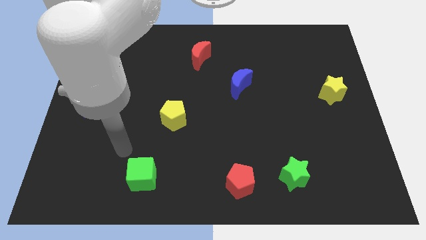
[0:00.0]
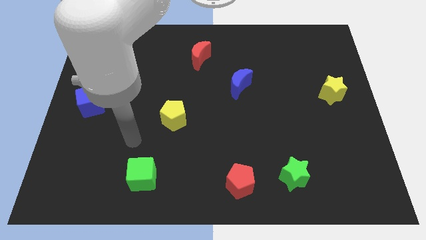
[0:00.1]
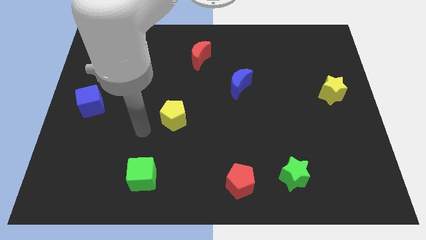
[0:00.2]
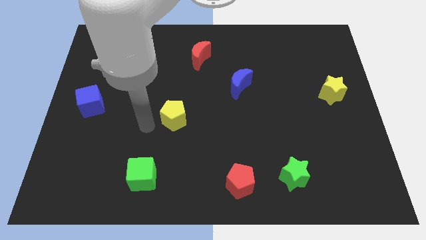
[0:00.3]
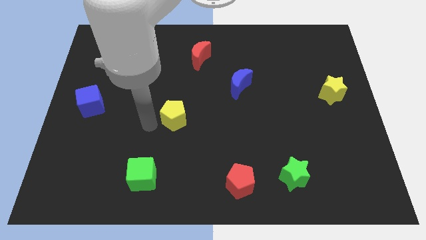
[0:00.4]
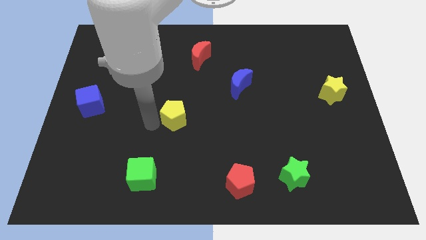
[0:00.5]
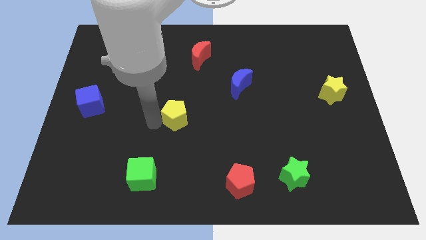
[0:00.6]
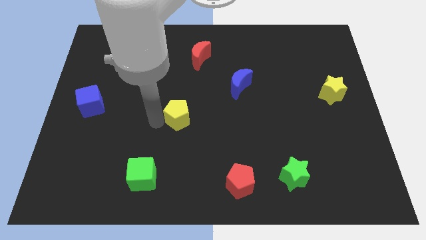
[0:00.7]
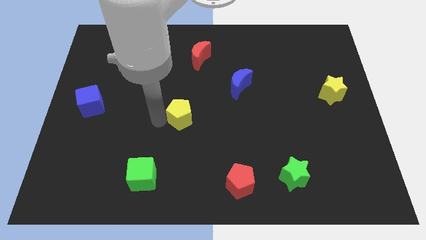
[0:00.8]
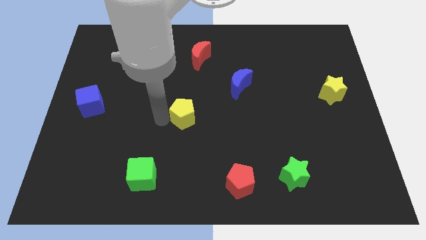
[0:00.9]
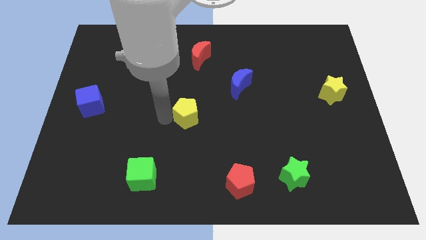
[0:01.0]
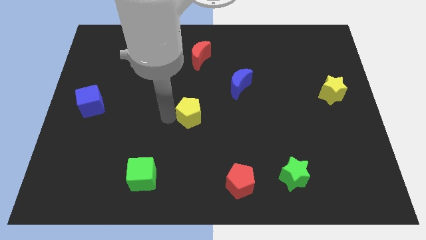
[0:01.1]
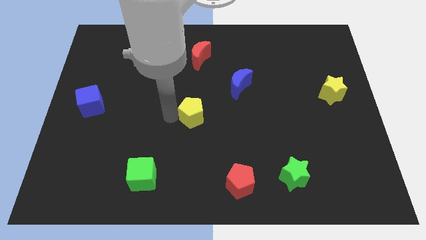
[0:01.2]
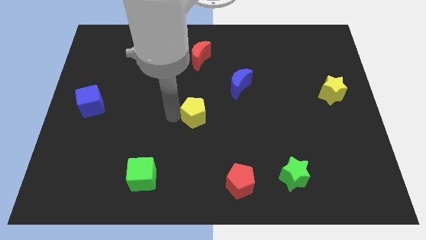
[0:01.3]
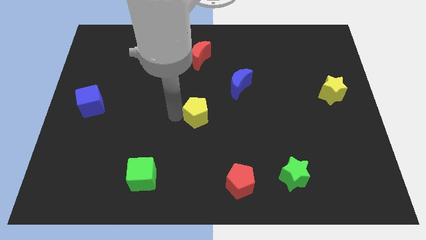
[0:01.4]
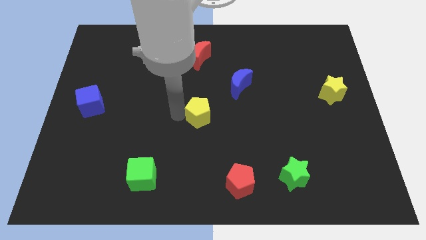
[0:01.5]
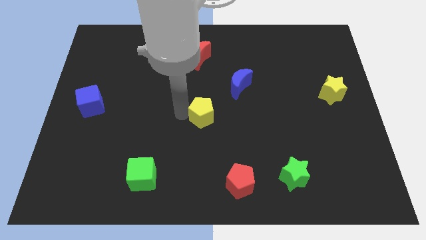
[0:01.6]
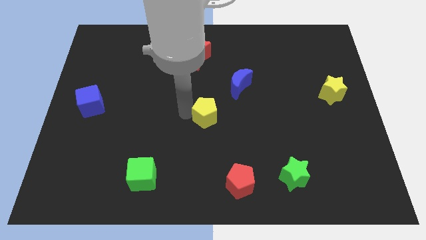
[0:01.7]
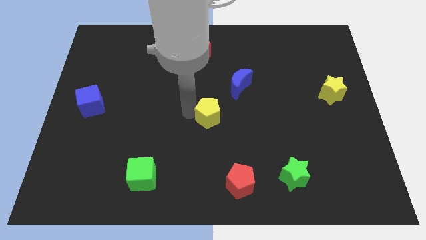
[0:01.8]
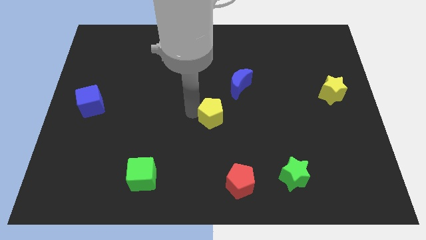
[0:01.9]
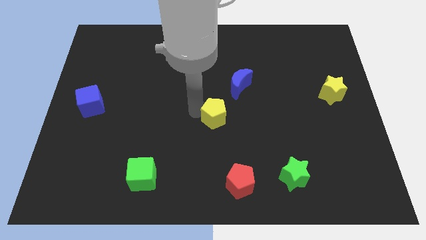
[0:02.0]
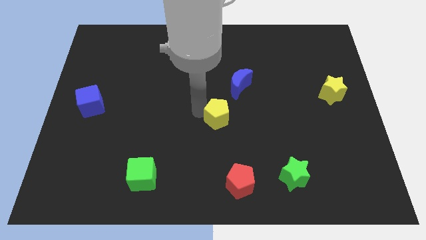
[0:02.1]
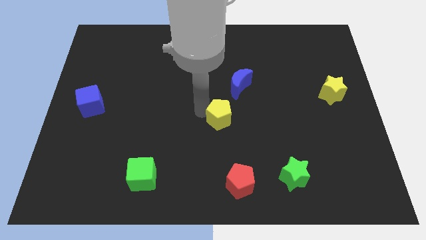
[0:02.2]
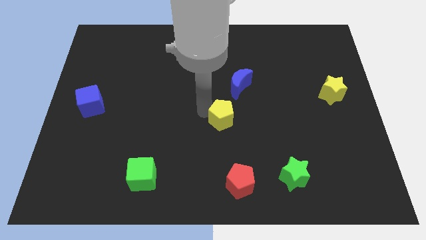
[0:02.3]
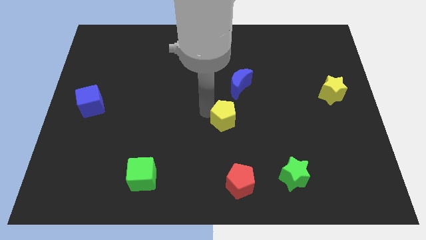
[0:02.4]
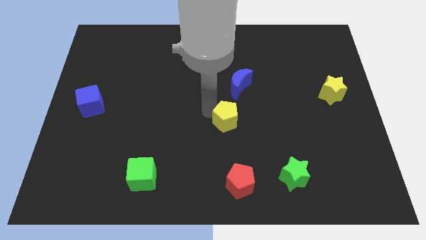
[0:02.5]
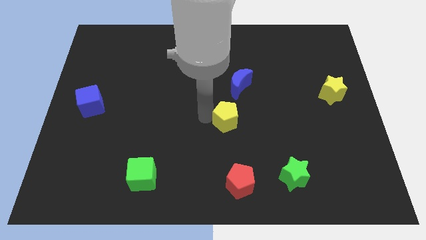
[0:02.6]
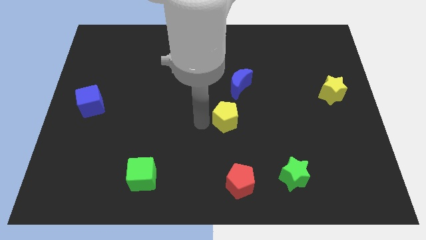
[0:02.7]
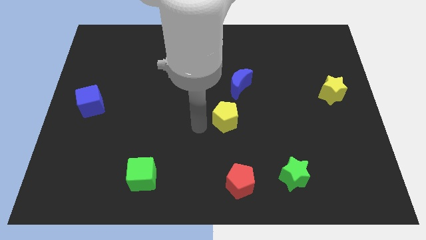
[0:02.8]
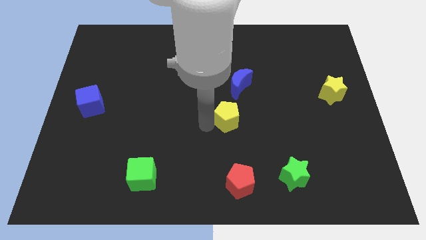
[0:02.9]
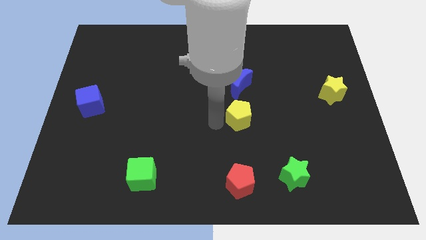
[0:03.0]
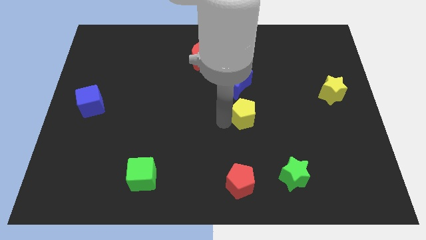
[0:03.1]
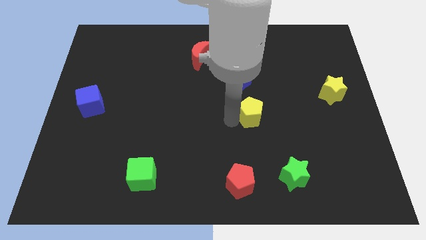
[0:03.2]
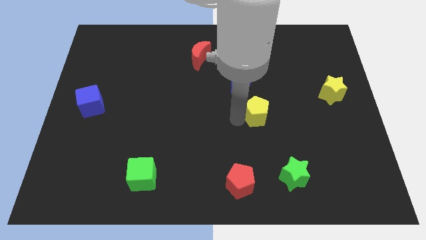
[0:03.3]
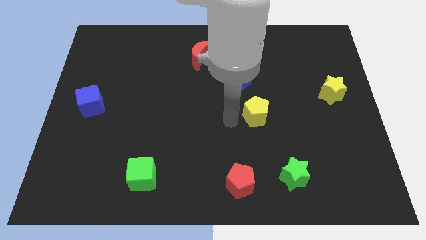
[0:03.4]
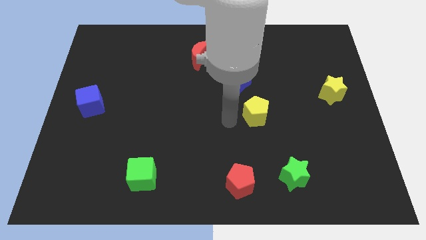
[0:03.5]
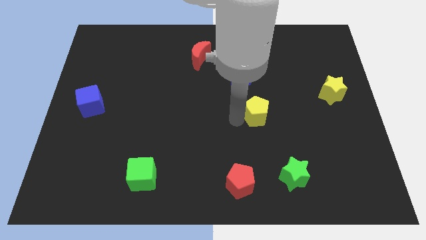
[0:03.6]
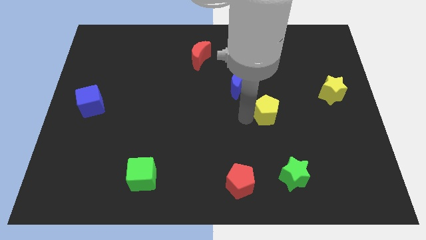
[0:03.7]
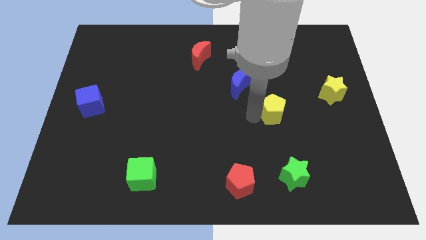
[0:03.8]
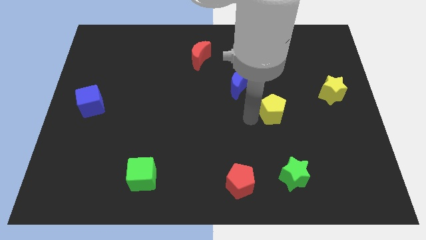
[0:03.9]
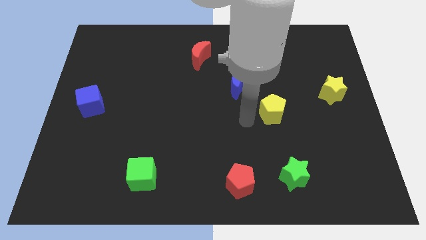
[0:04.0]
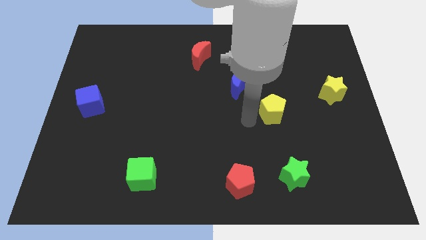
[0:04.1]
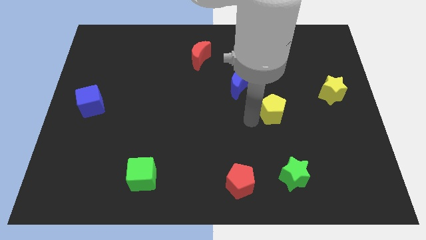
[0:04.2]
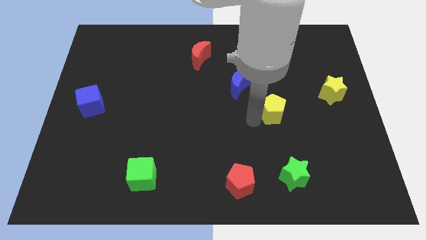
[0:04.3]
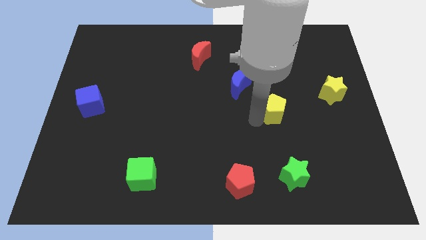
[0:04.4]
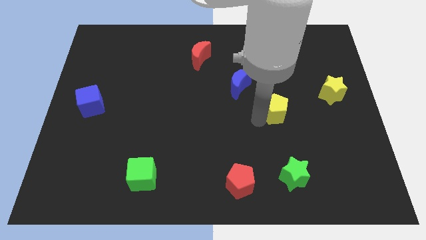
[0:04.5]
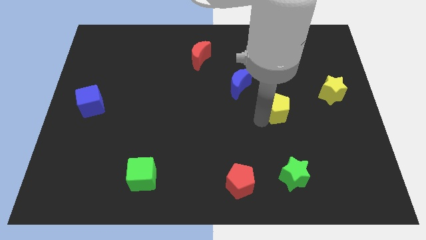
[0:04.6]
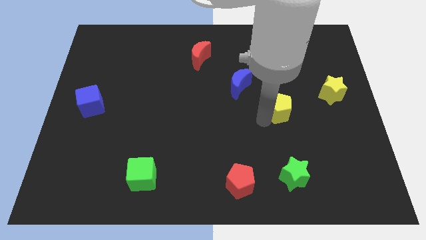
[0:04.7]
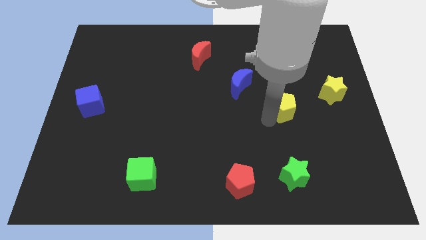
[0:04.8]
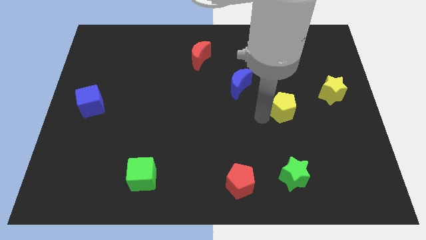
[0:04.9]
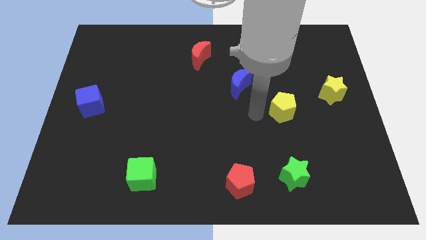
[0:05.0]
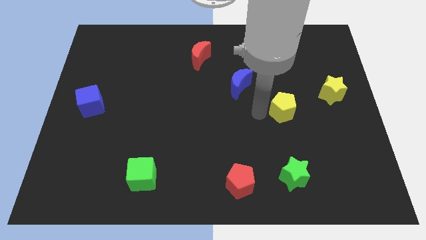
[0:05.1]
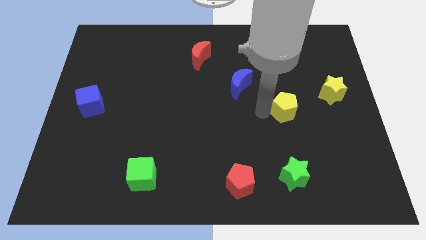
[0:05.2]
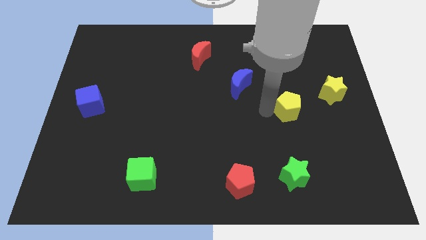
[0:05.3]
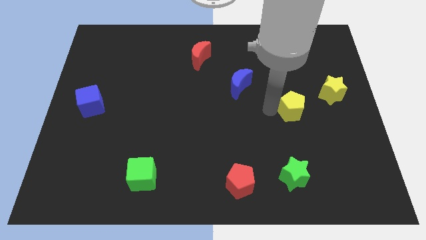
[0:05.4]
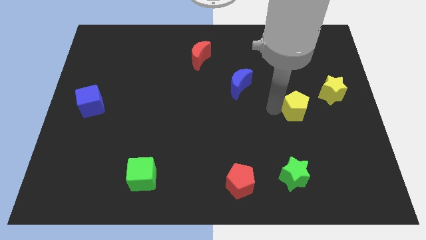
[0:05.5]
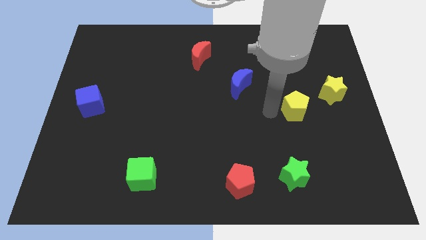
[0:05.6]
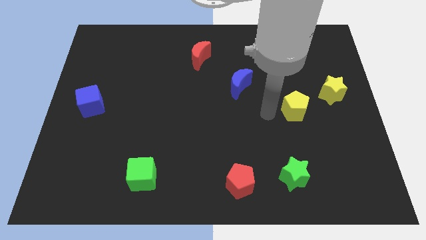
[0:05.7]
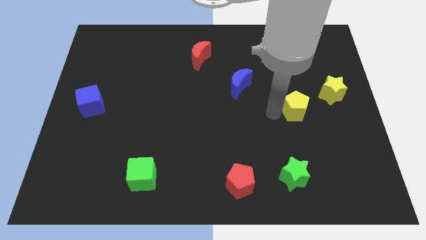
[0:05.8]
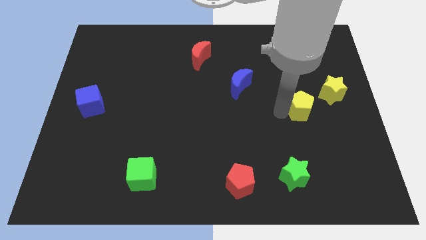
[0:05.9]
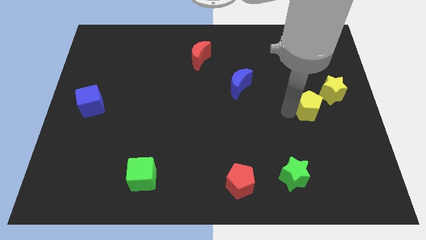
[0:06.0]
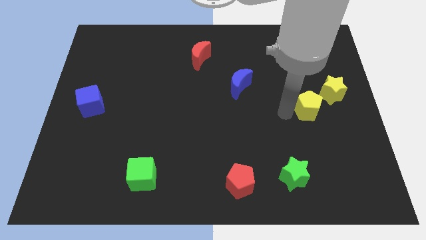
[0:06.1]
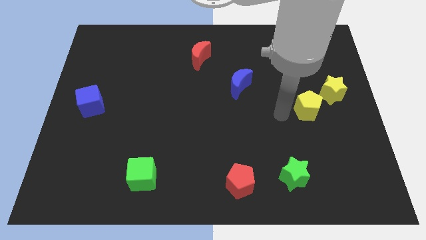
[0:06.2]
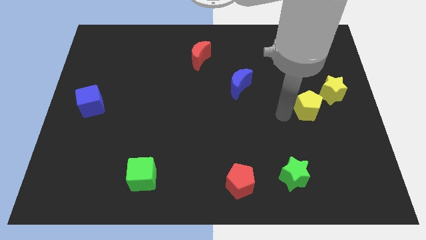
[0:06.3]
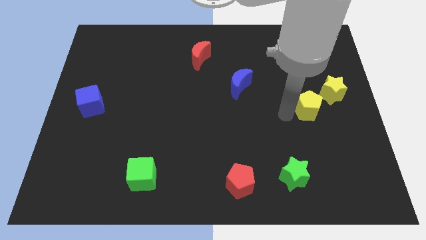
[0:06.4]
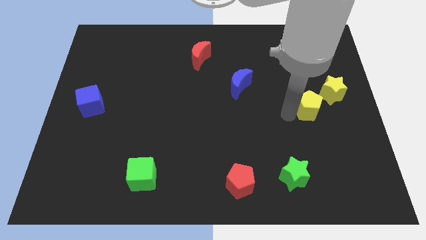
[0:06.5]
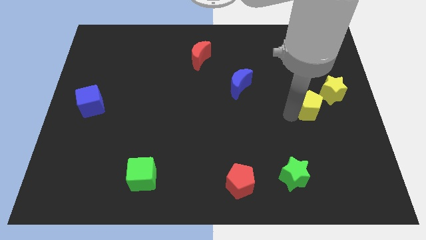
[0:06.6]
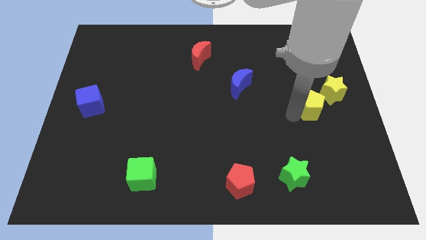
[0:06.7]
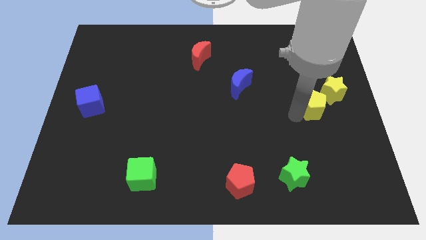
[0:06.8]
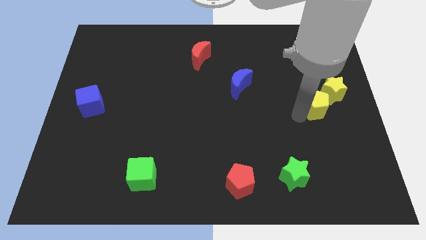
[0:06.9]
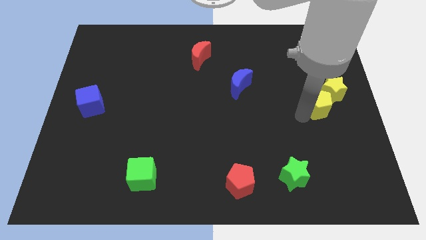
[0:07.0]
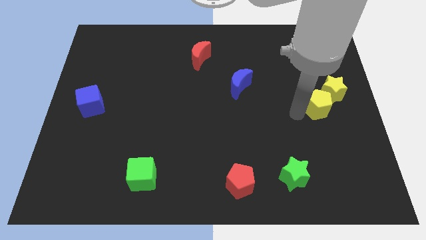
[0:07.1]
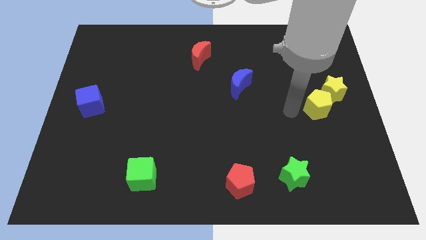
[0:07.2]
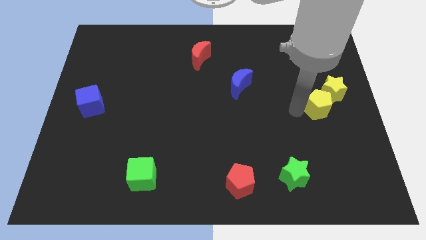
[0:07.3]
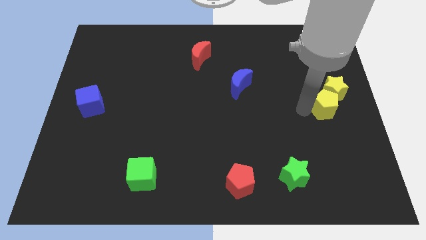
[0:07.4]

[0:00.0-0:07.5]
slide the yellow pentagon to the right side of the board
